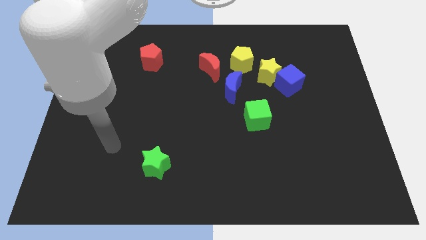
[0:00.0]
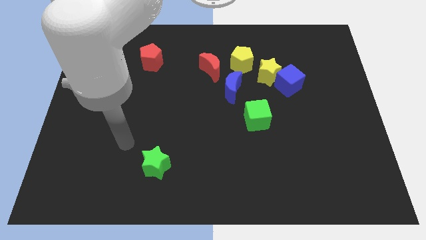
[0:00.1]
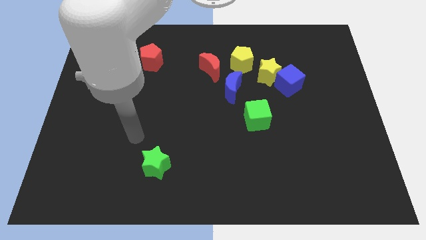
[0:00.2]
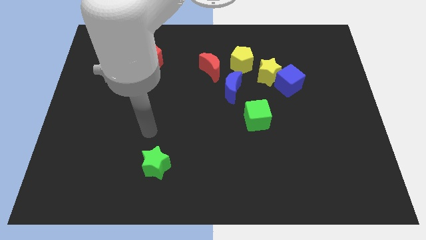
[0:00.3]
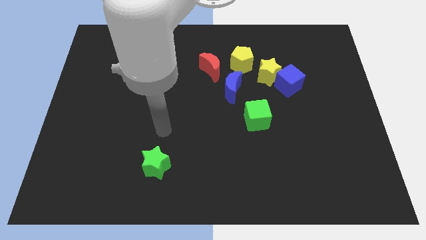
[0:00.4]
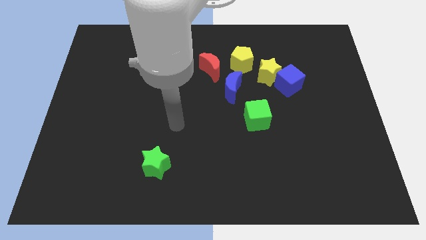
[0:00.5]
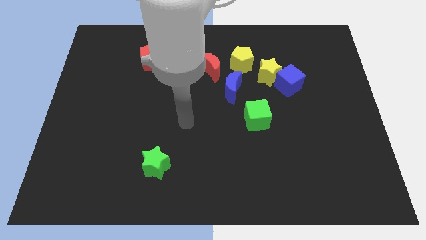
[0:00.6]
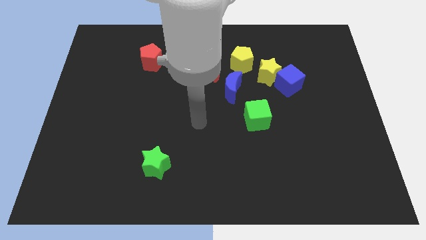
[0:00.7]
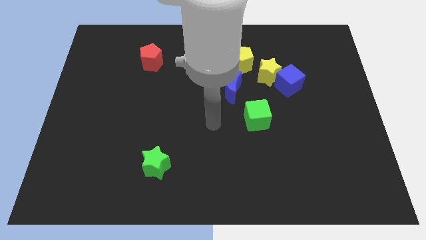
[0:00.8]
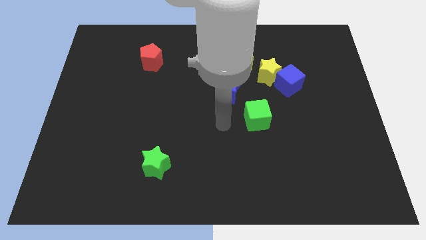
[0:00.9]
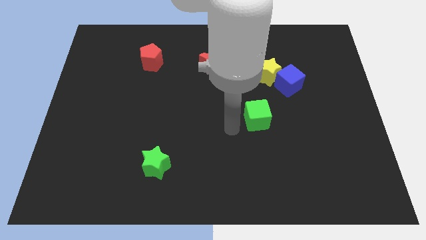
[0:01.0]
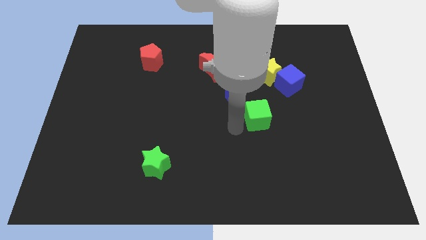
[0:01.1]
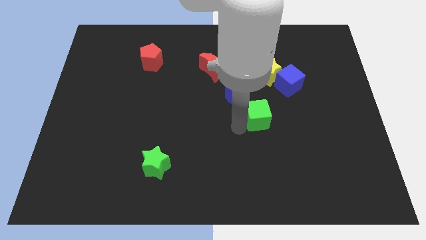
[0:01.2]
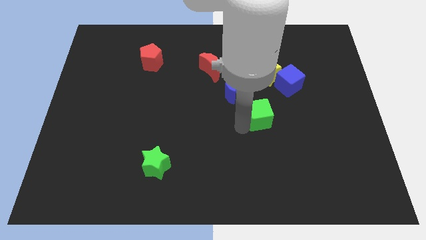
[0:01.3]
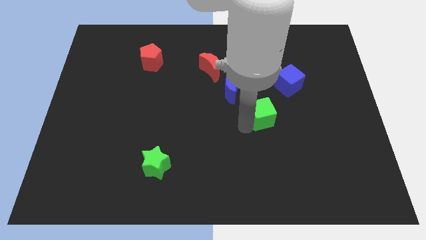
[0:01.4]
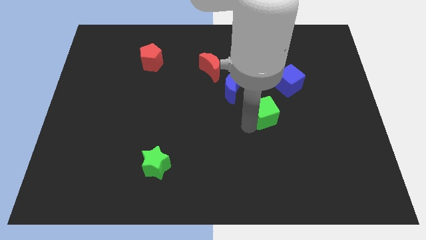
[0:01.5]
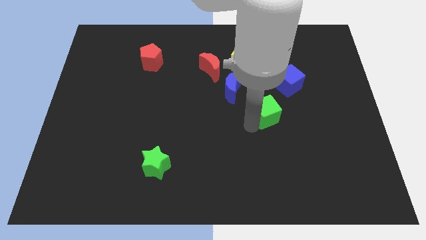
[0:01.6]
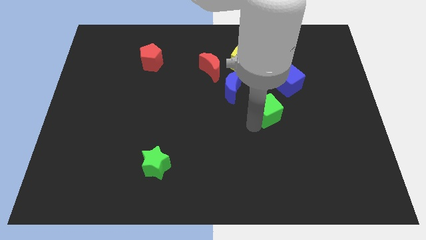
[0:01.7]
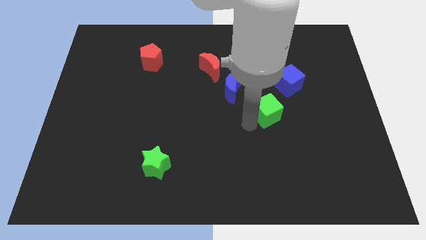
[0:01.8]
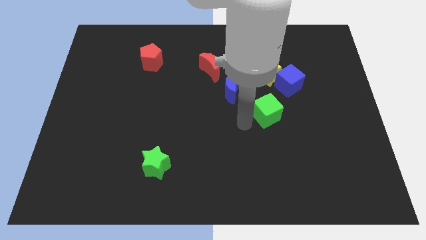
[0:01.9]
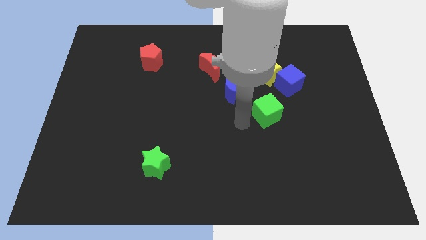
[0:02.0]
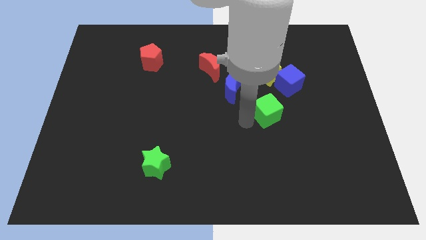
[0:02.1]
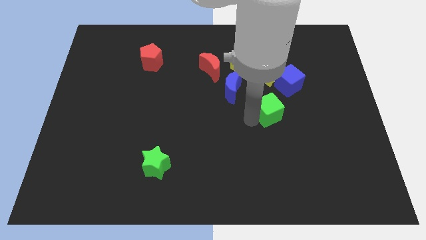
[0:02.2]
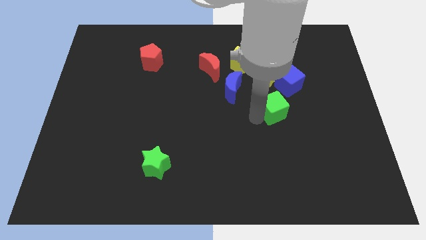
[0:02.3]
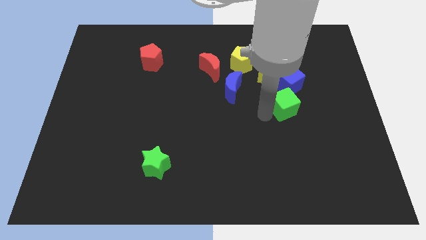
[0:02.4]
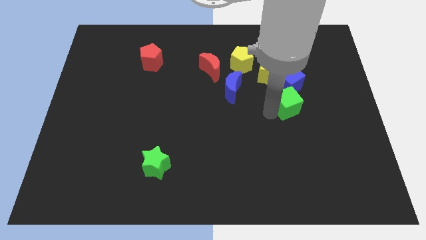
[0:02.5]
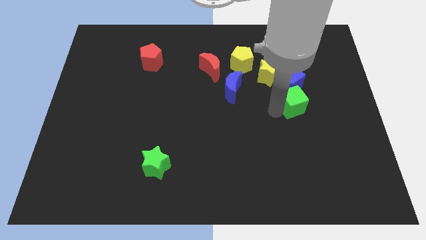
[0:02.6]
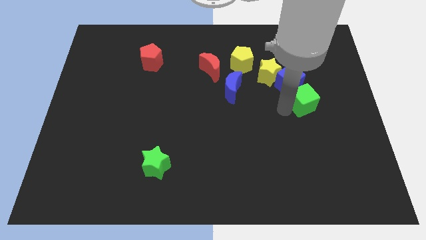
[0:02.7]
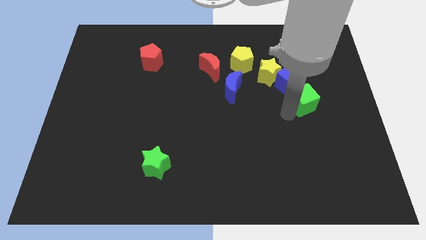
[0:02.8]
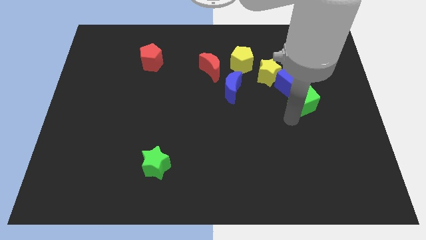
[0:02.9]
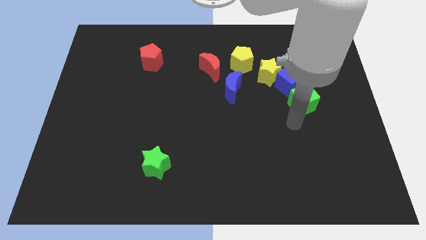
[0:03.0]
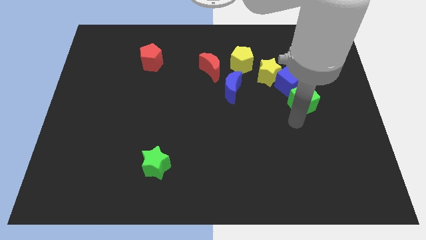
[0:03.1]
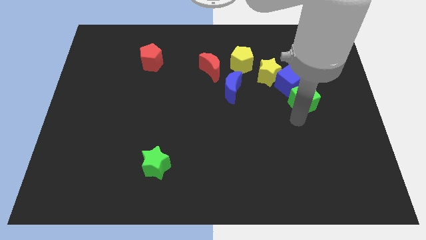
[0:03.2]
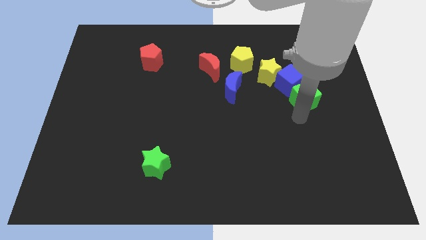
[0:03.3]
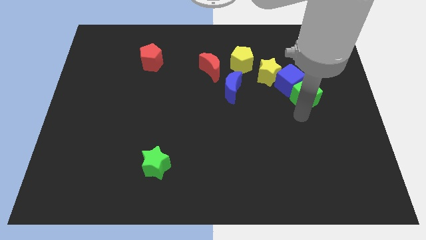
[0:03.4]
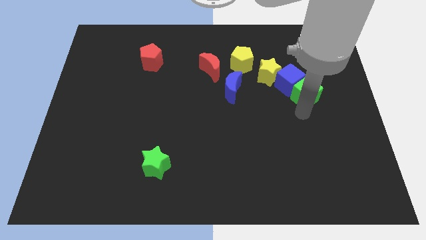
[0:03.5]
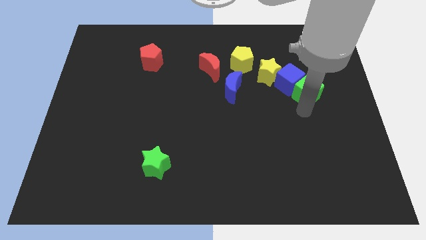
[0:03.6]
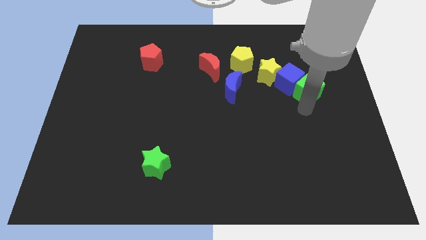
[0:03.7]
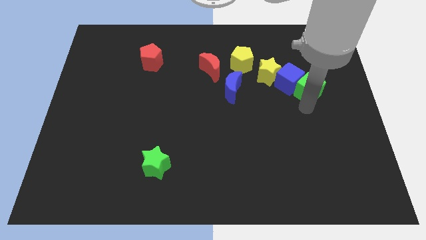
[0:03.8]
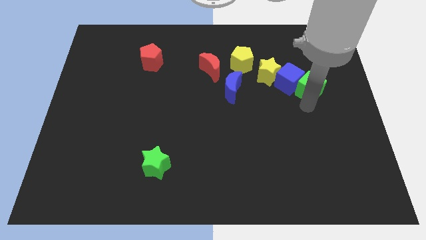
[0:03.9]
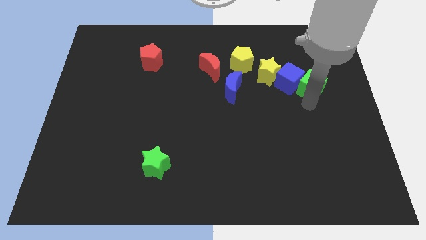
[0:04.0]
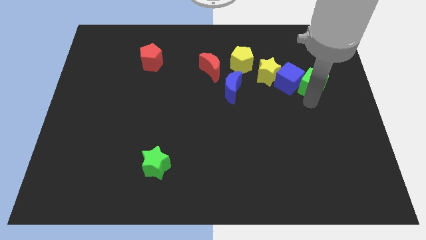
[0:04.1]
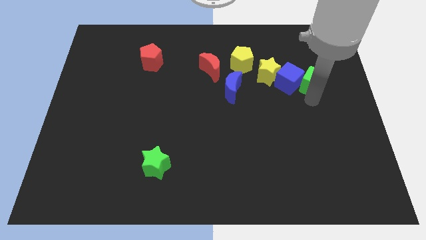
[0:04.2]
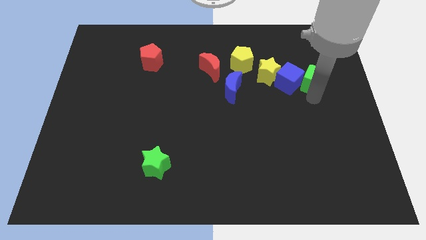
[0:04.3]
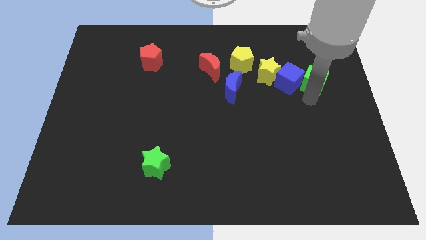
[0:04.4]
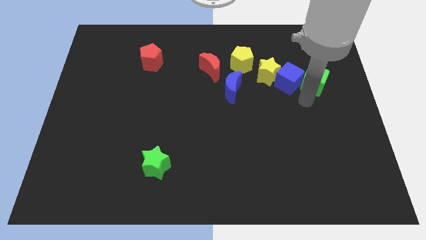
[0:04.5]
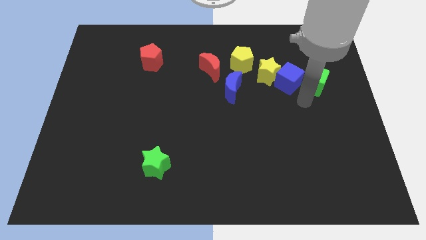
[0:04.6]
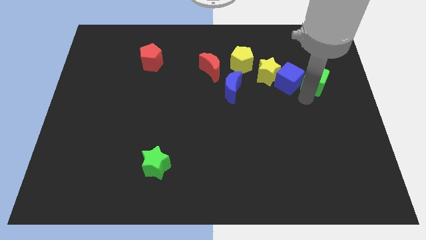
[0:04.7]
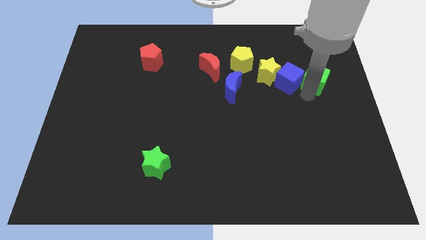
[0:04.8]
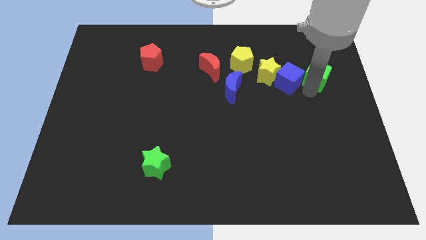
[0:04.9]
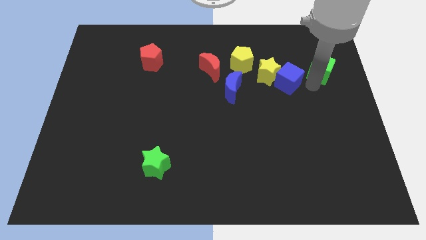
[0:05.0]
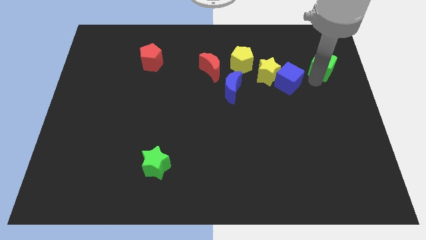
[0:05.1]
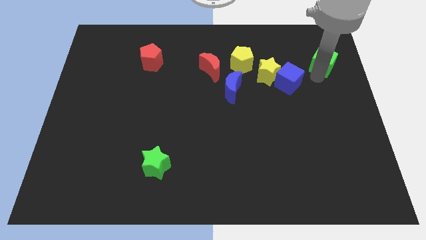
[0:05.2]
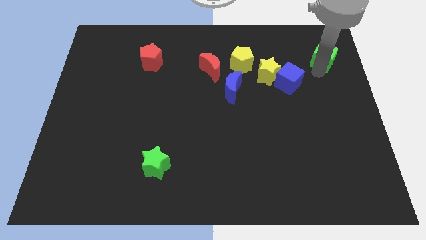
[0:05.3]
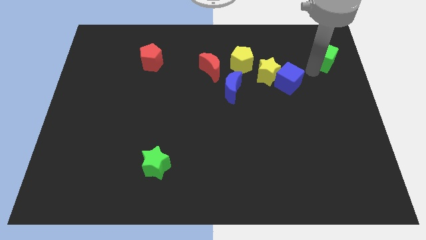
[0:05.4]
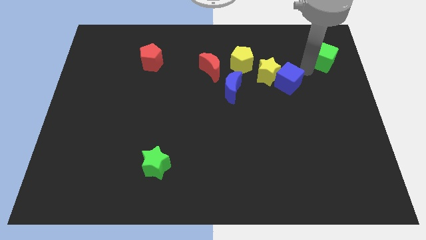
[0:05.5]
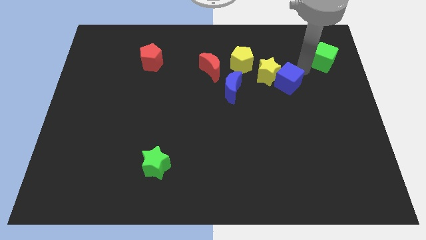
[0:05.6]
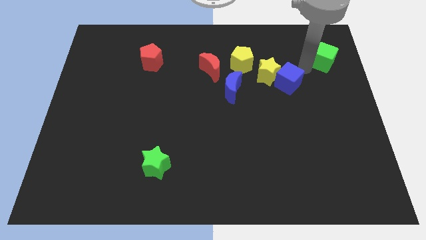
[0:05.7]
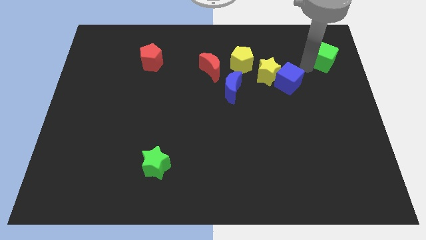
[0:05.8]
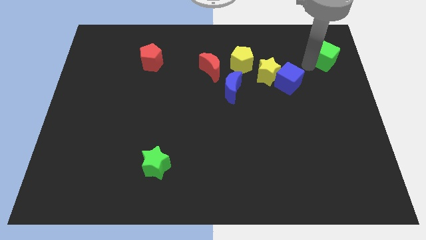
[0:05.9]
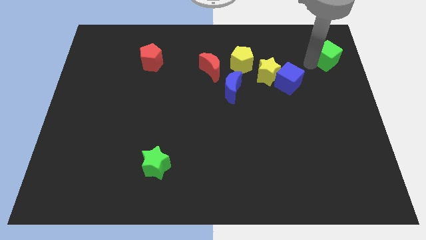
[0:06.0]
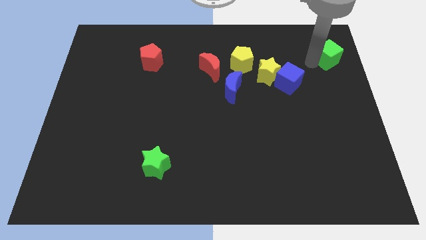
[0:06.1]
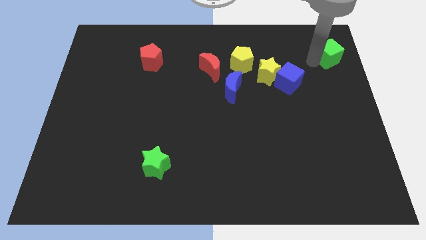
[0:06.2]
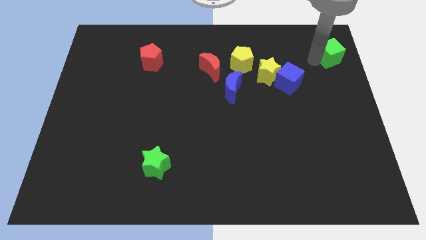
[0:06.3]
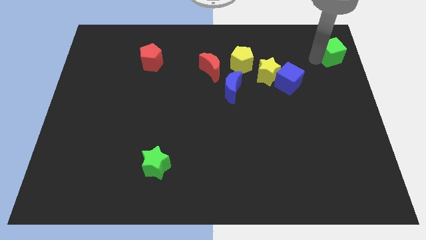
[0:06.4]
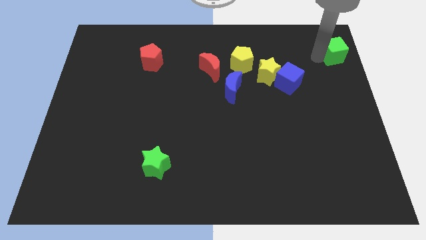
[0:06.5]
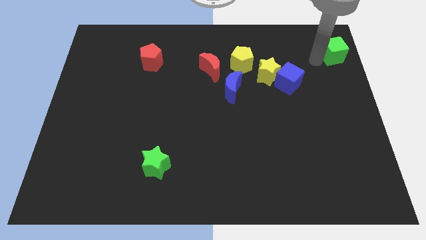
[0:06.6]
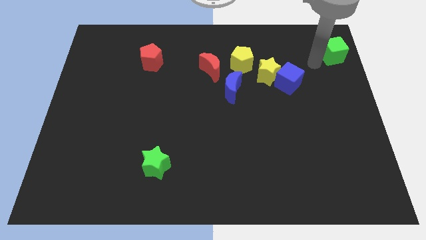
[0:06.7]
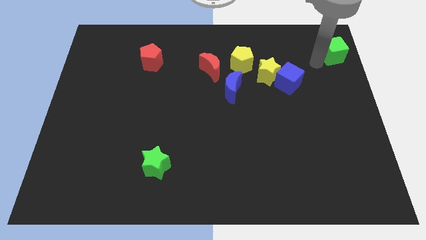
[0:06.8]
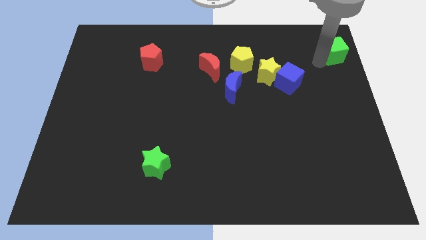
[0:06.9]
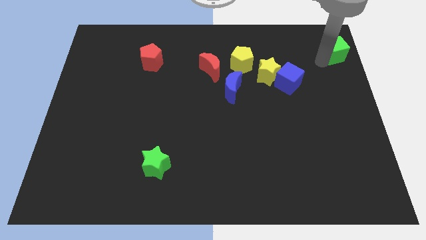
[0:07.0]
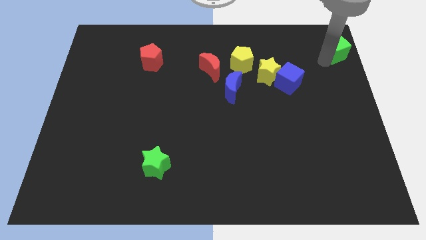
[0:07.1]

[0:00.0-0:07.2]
push the green cube to the top right
